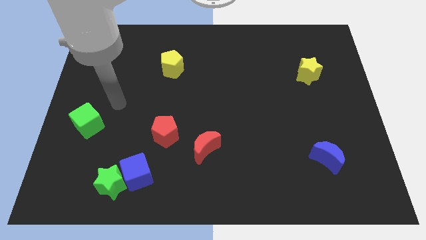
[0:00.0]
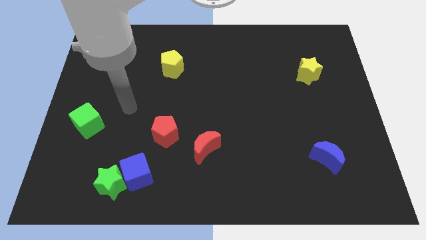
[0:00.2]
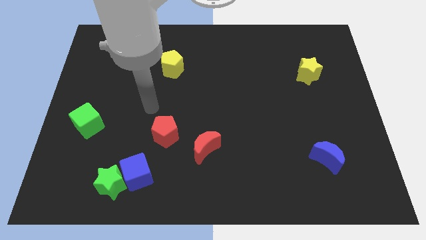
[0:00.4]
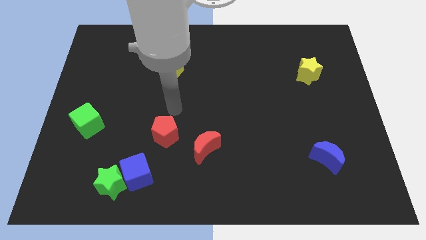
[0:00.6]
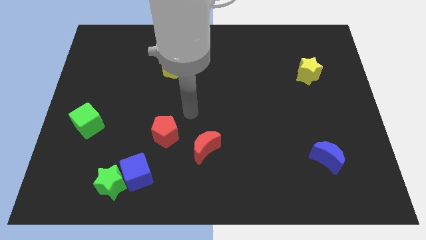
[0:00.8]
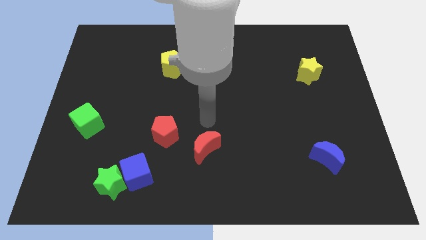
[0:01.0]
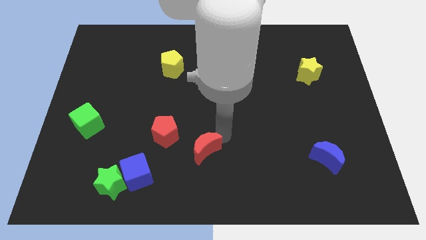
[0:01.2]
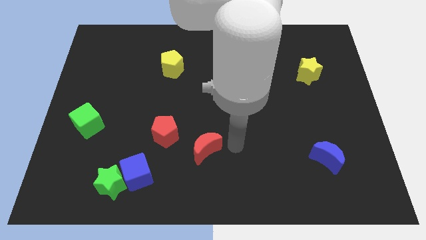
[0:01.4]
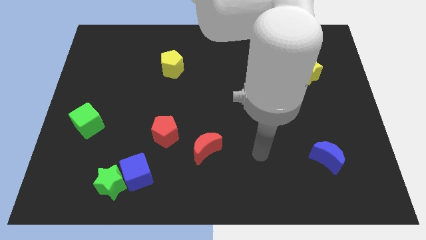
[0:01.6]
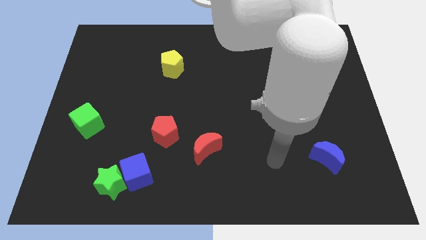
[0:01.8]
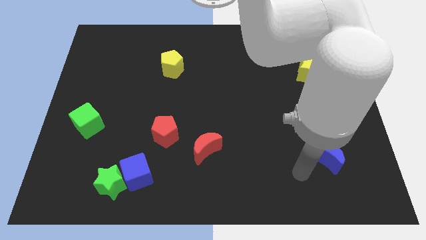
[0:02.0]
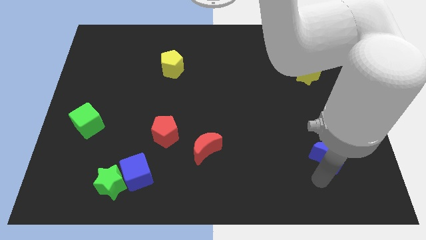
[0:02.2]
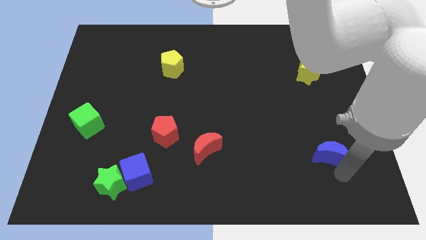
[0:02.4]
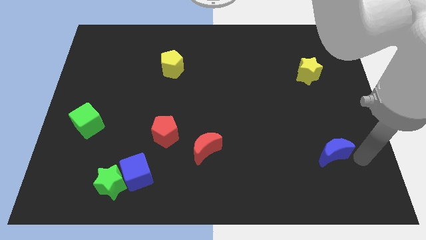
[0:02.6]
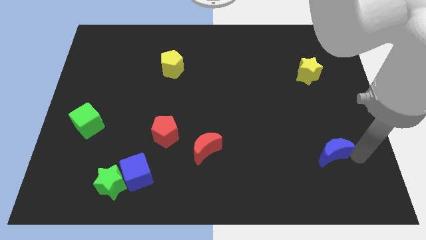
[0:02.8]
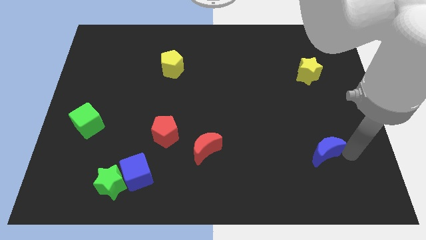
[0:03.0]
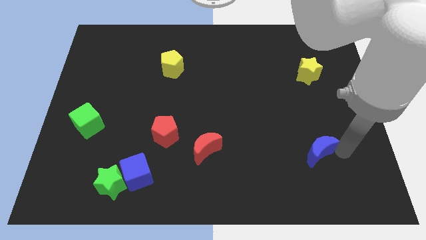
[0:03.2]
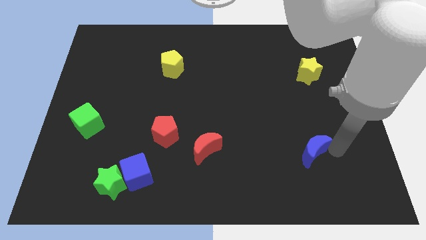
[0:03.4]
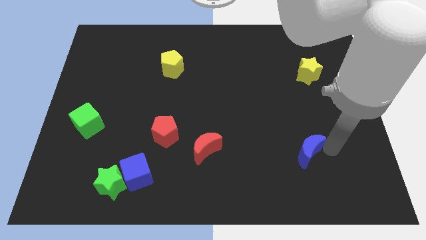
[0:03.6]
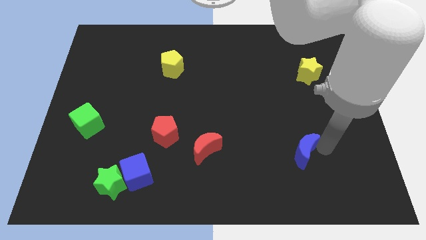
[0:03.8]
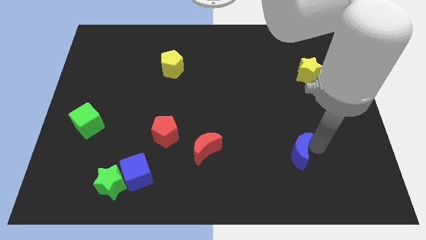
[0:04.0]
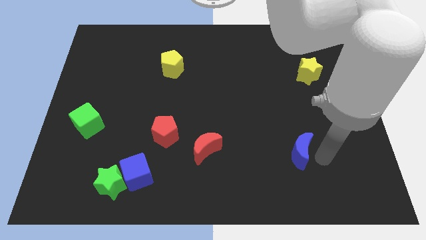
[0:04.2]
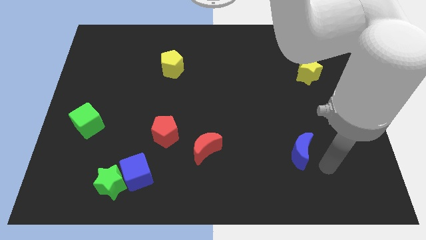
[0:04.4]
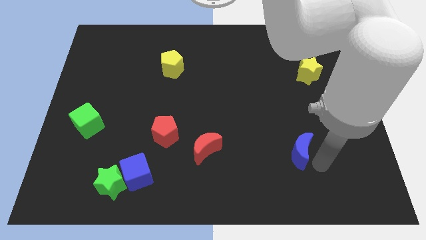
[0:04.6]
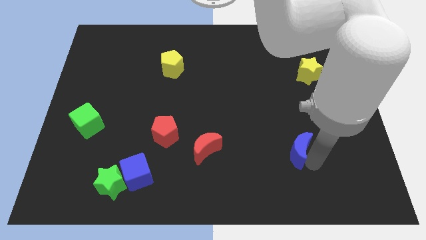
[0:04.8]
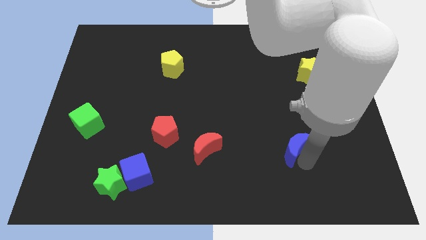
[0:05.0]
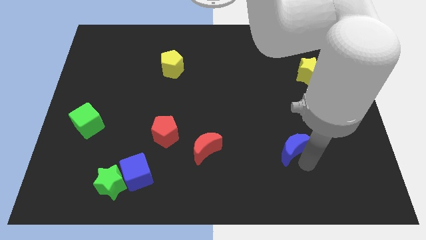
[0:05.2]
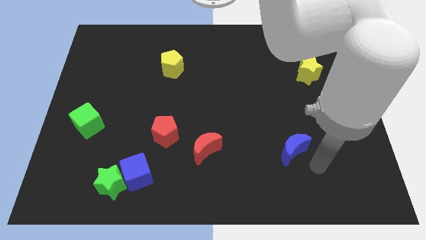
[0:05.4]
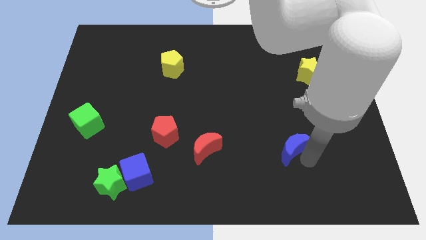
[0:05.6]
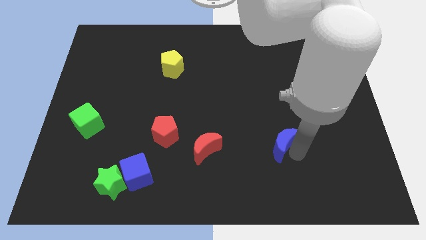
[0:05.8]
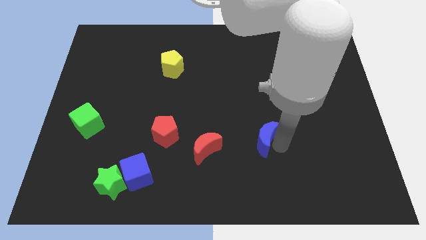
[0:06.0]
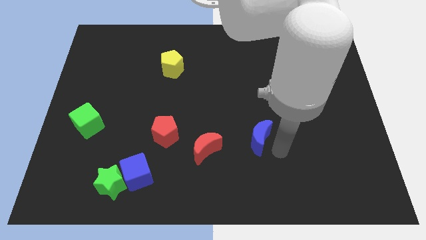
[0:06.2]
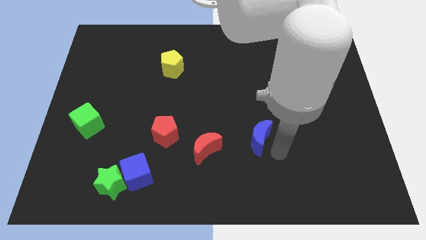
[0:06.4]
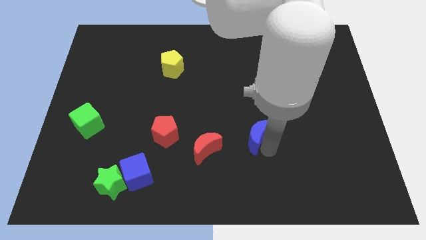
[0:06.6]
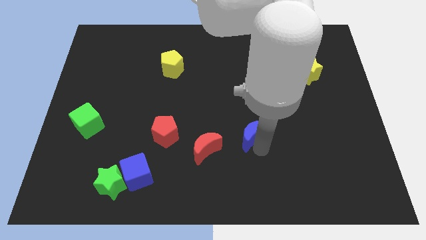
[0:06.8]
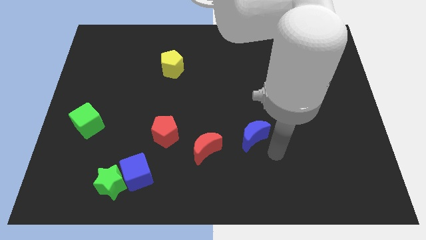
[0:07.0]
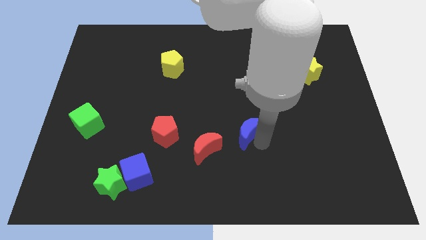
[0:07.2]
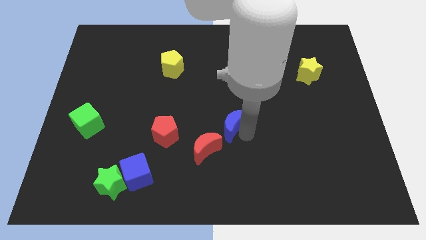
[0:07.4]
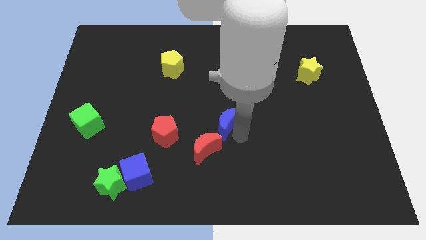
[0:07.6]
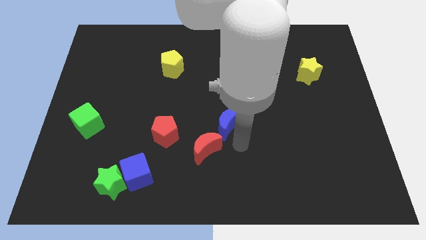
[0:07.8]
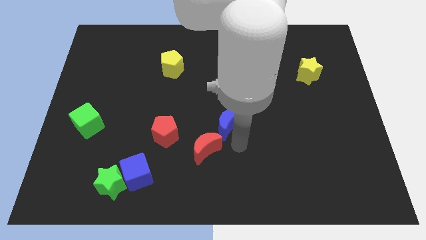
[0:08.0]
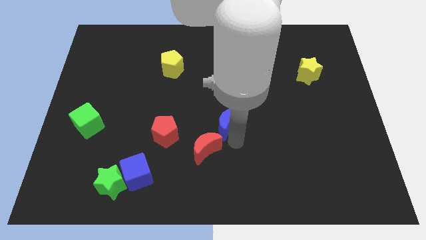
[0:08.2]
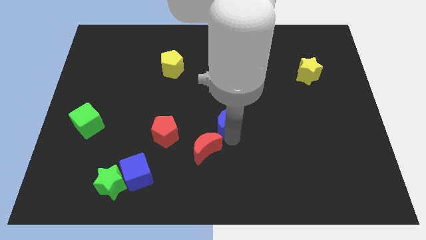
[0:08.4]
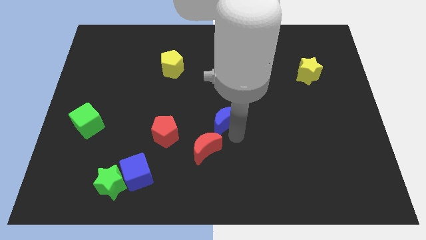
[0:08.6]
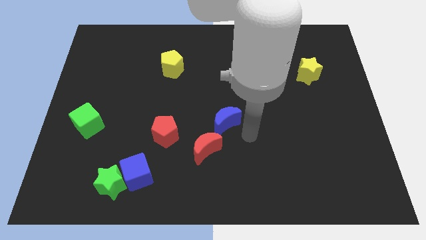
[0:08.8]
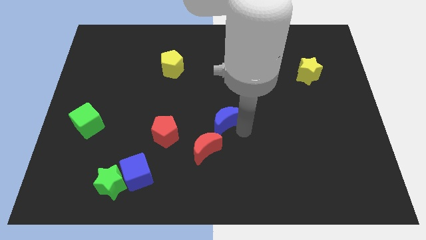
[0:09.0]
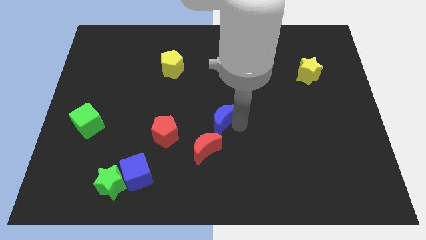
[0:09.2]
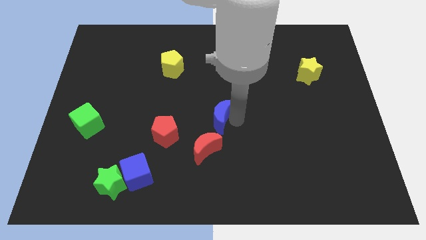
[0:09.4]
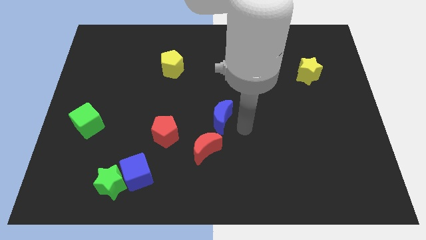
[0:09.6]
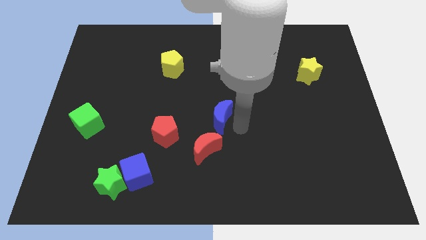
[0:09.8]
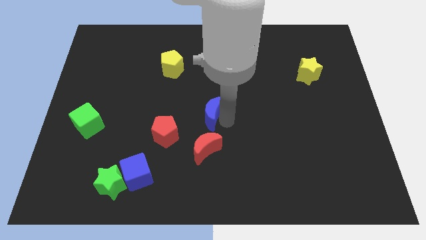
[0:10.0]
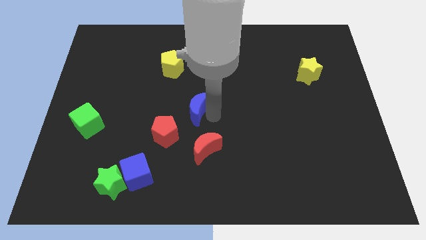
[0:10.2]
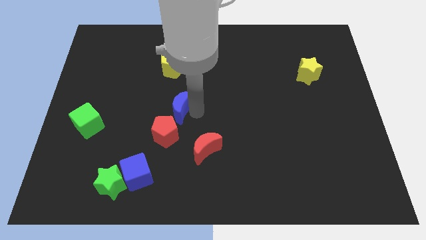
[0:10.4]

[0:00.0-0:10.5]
push the blue moon to the bottom of the yellow pentagon

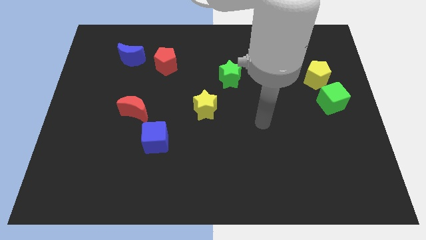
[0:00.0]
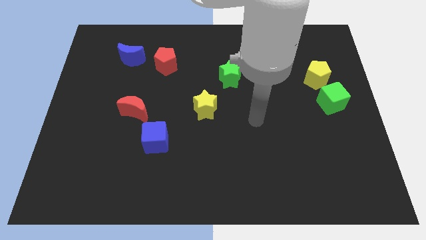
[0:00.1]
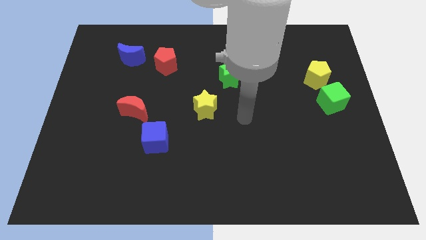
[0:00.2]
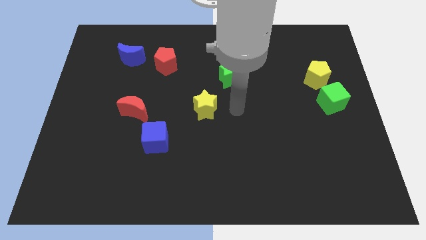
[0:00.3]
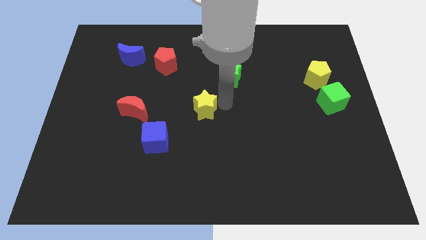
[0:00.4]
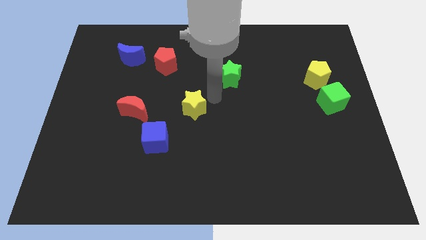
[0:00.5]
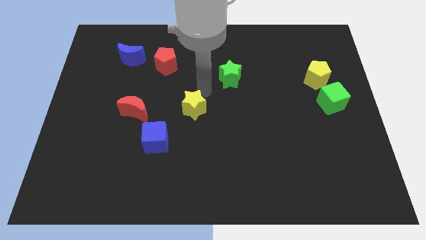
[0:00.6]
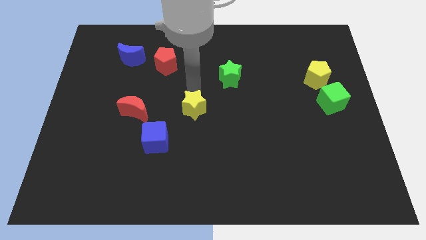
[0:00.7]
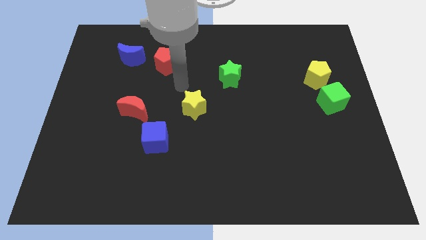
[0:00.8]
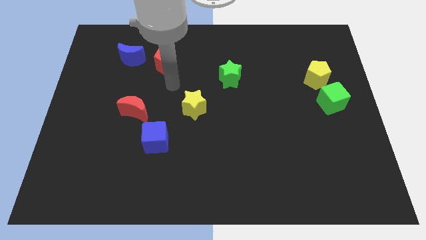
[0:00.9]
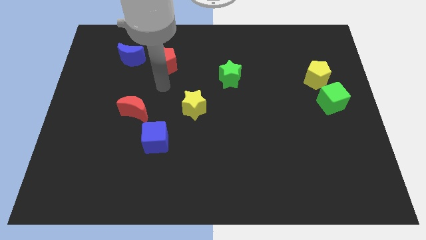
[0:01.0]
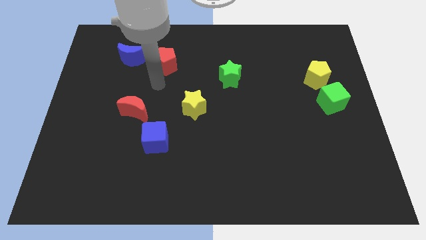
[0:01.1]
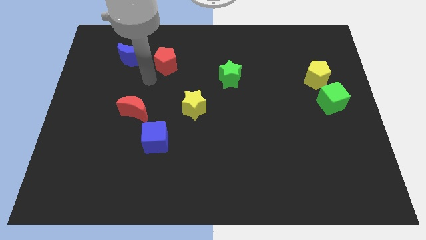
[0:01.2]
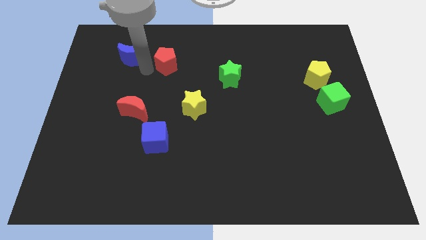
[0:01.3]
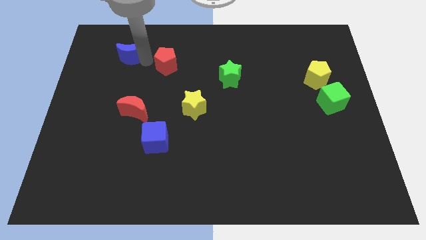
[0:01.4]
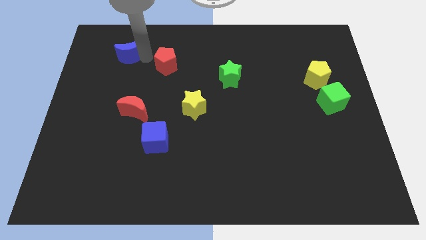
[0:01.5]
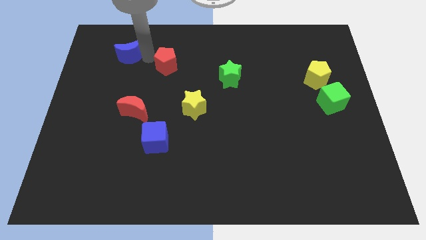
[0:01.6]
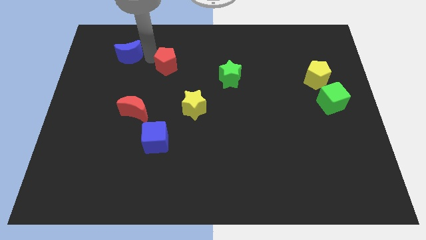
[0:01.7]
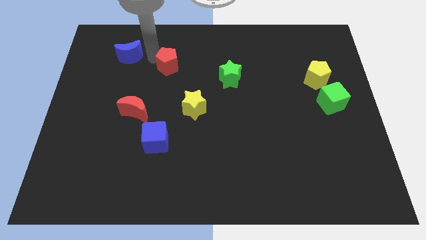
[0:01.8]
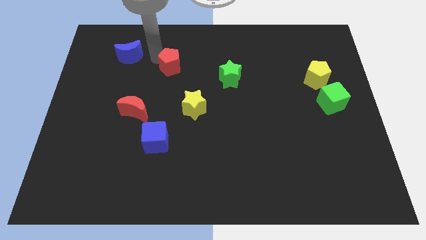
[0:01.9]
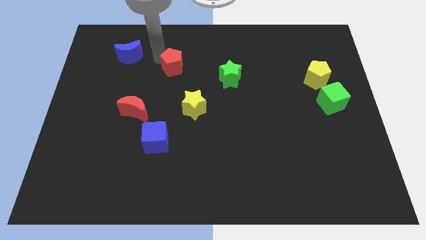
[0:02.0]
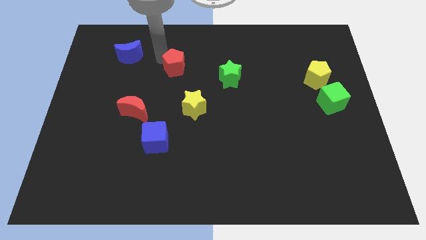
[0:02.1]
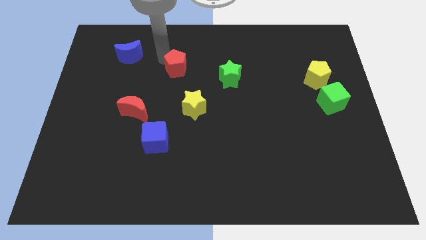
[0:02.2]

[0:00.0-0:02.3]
move the red pentagon to the top of the yellow star
